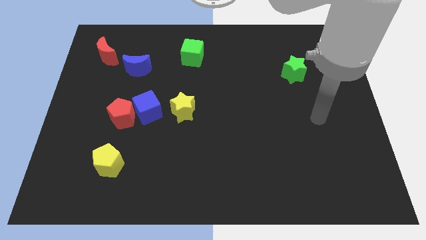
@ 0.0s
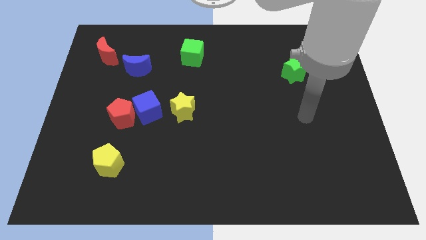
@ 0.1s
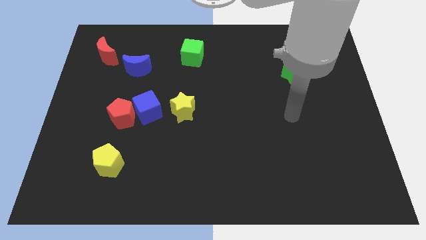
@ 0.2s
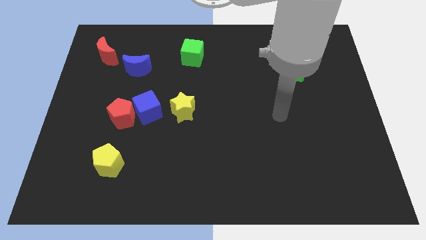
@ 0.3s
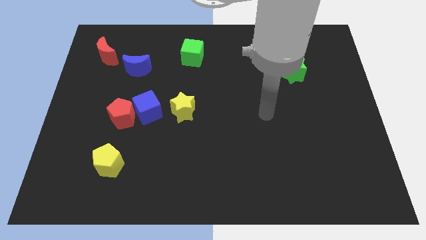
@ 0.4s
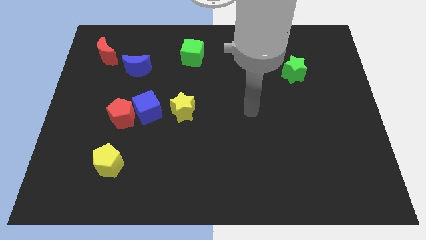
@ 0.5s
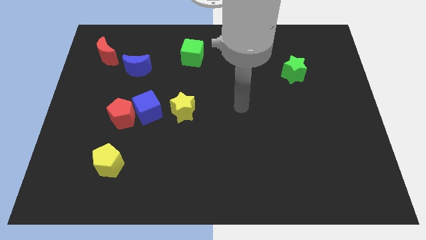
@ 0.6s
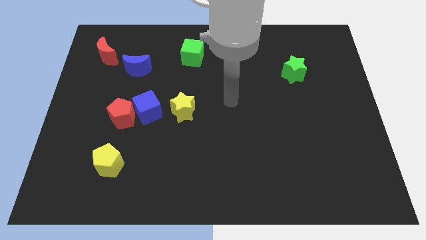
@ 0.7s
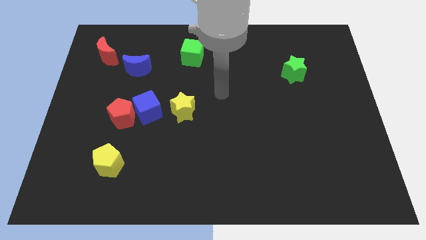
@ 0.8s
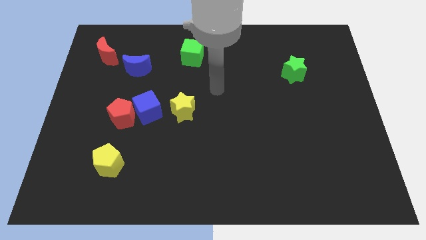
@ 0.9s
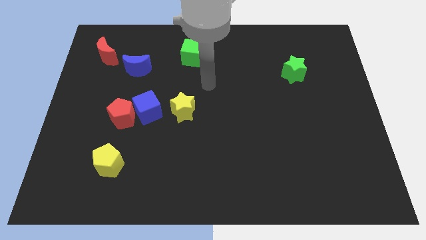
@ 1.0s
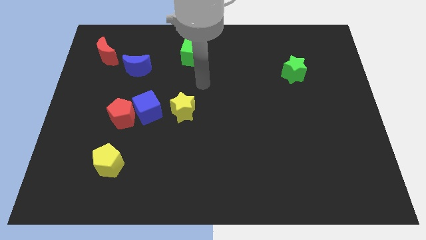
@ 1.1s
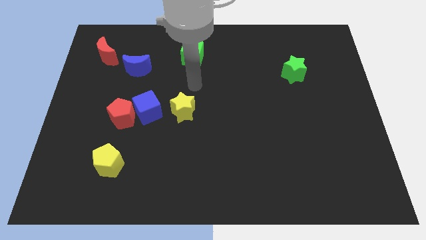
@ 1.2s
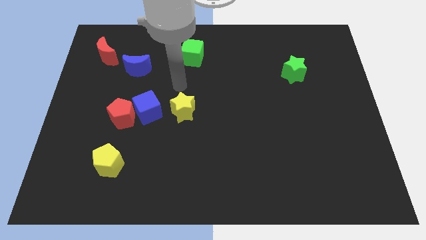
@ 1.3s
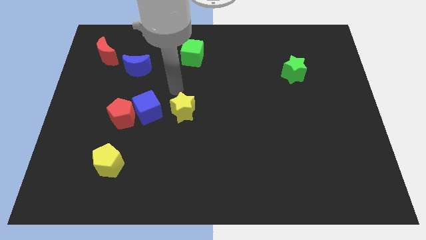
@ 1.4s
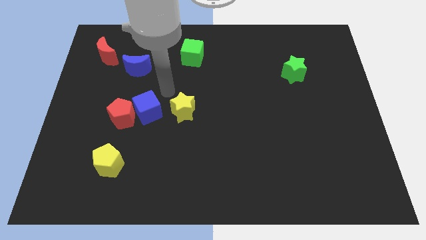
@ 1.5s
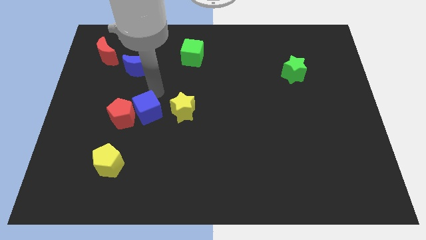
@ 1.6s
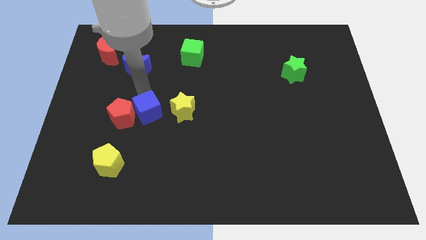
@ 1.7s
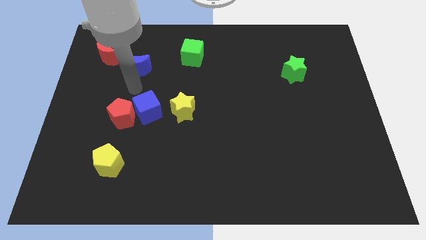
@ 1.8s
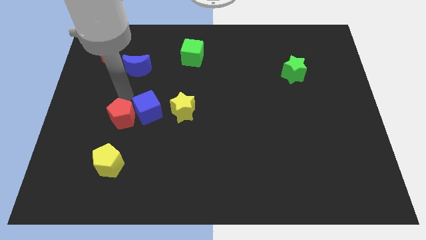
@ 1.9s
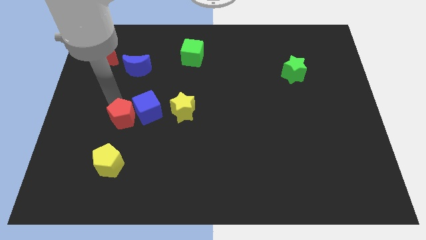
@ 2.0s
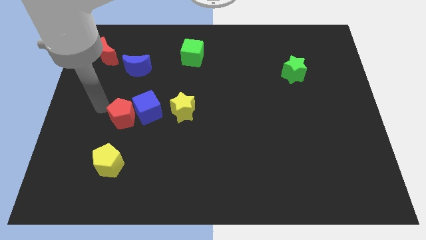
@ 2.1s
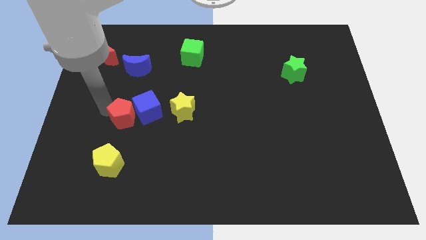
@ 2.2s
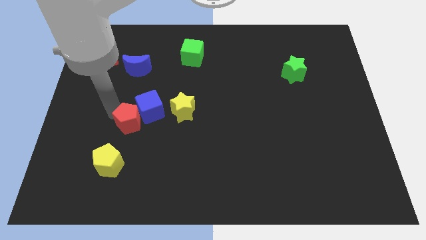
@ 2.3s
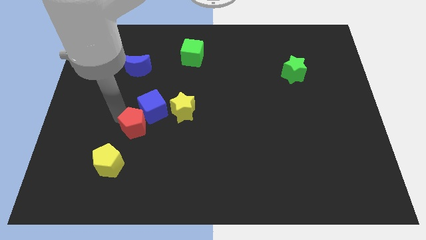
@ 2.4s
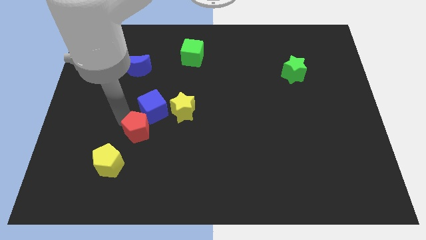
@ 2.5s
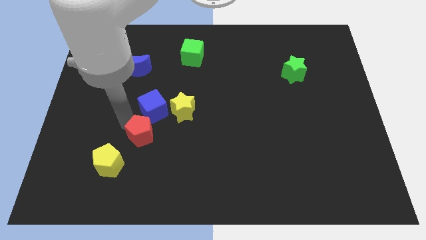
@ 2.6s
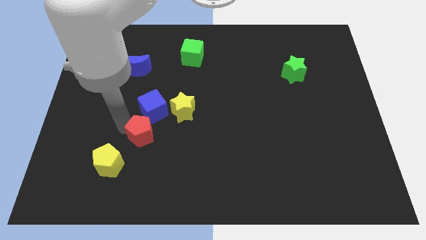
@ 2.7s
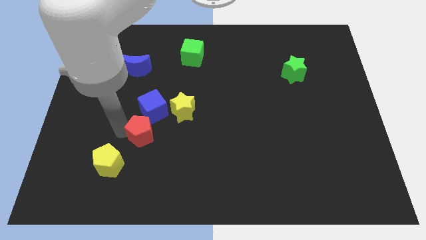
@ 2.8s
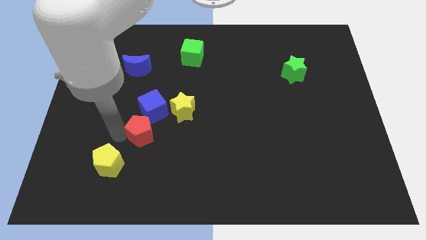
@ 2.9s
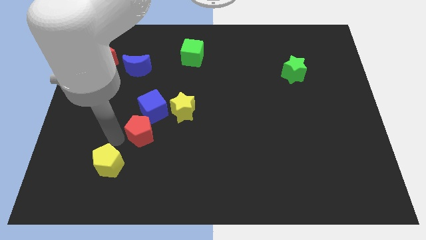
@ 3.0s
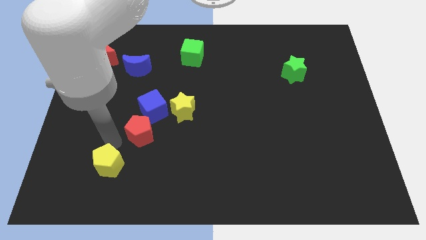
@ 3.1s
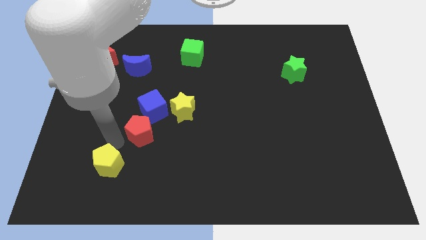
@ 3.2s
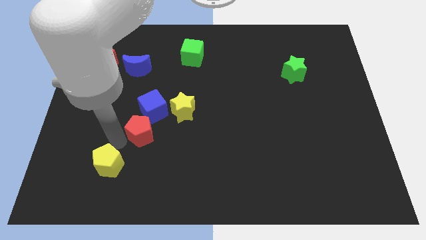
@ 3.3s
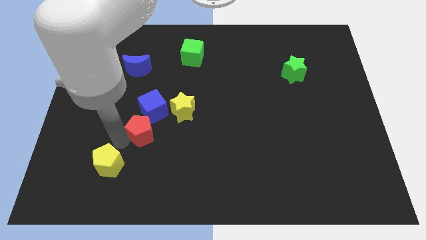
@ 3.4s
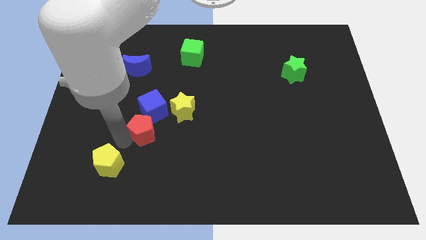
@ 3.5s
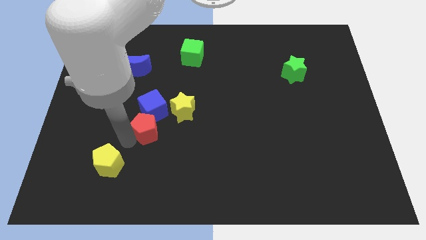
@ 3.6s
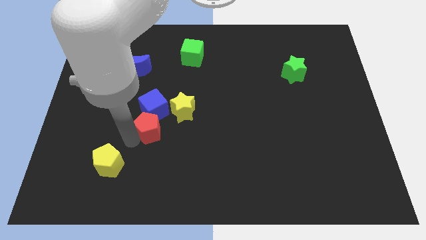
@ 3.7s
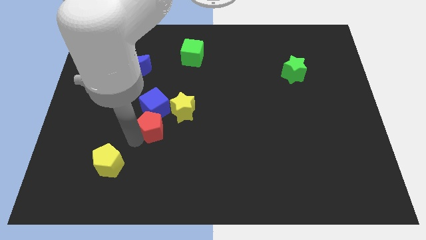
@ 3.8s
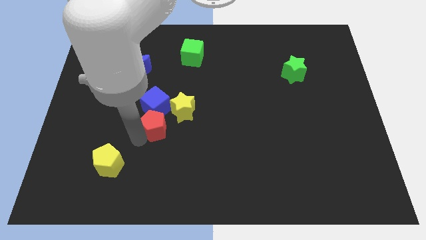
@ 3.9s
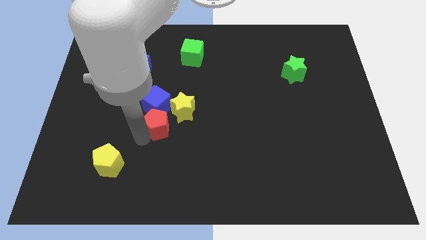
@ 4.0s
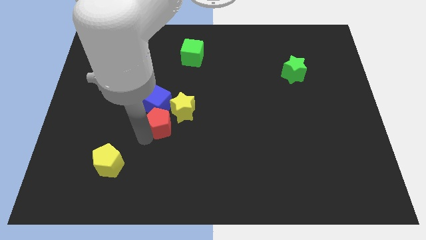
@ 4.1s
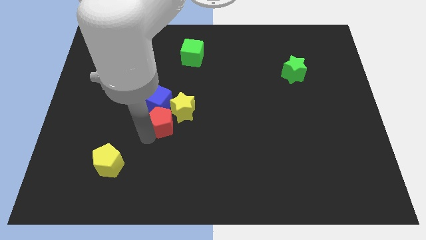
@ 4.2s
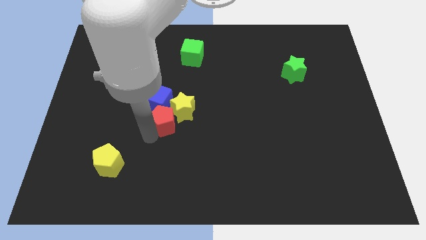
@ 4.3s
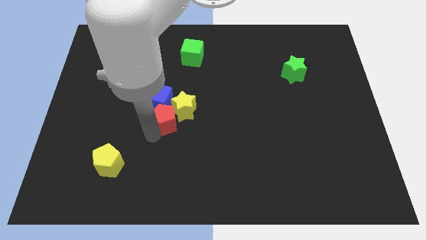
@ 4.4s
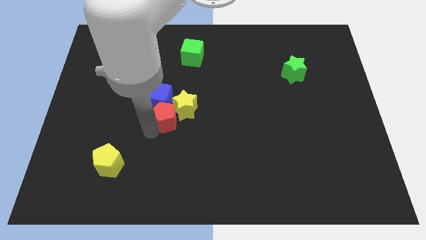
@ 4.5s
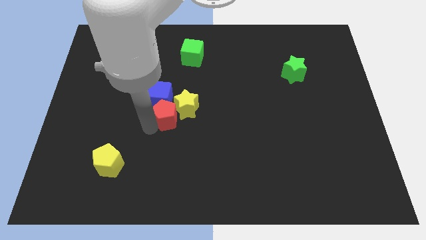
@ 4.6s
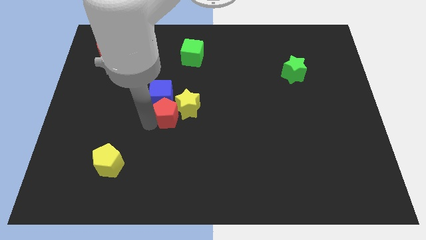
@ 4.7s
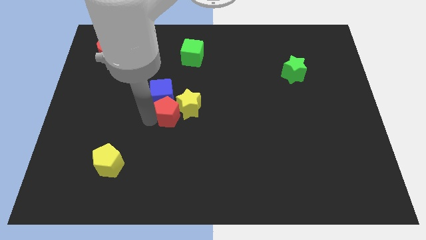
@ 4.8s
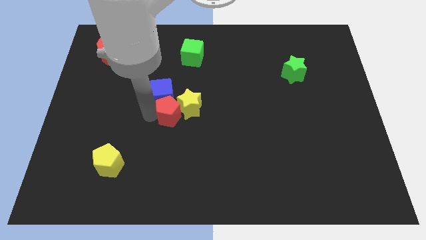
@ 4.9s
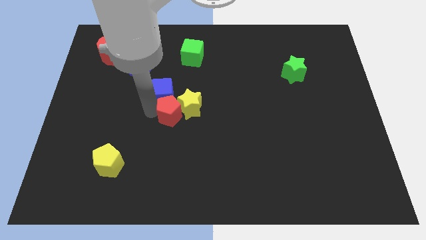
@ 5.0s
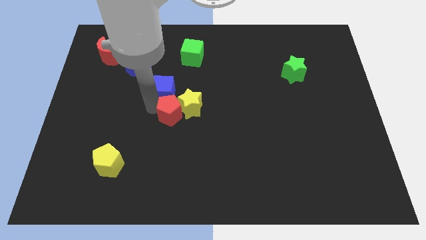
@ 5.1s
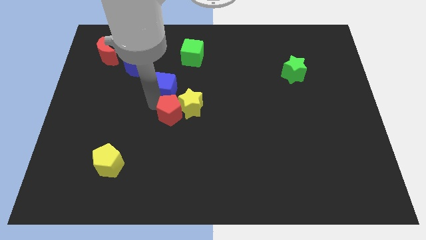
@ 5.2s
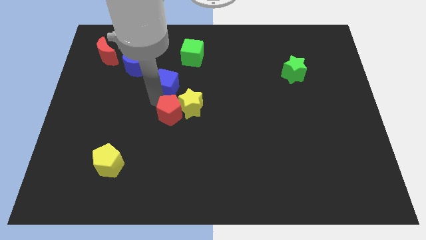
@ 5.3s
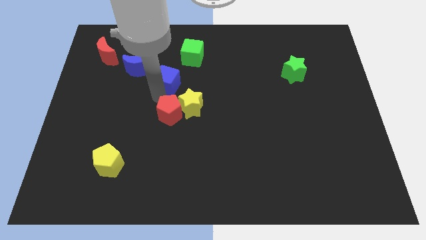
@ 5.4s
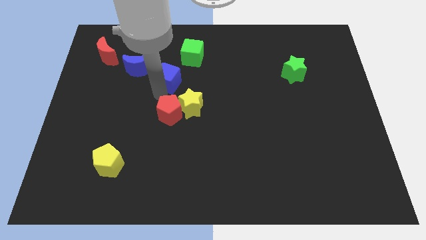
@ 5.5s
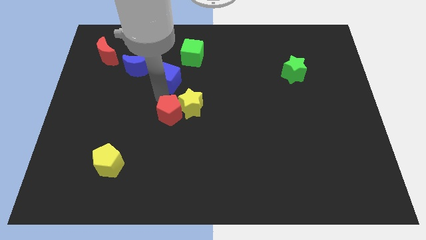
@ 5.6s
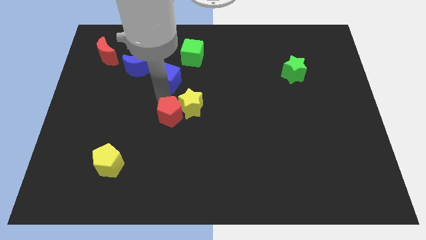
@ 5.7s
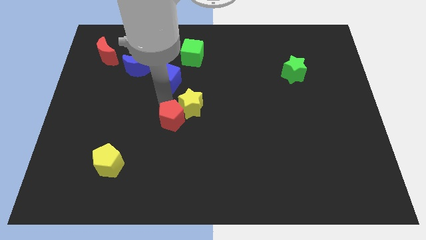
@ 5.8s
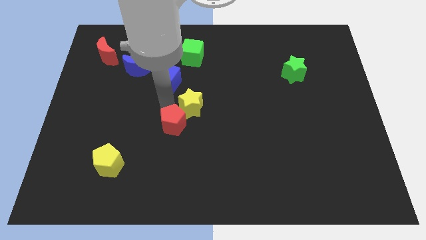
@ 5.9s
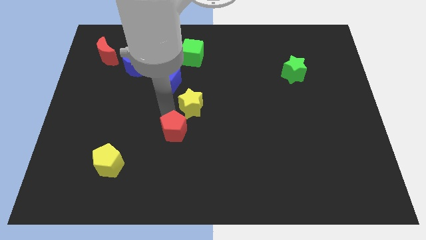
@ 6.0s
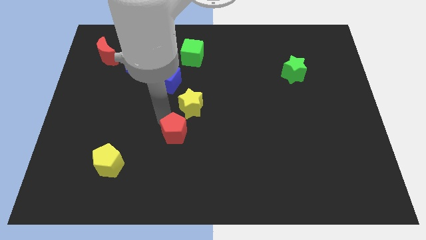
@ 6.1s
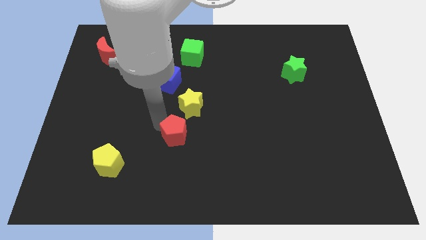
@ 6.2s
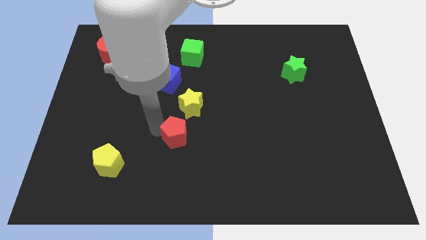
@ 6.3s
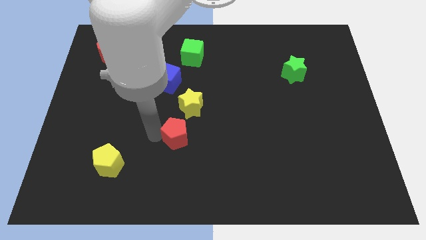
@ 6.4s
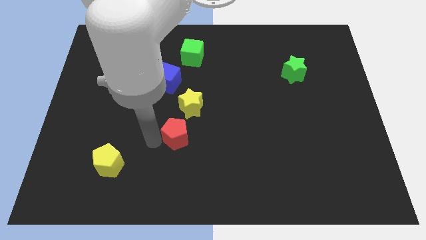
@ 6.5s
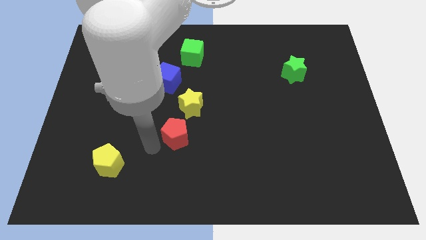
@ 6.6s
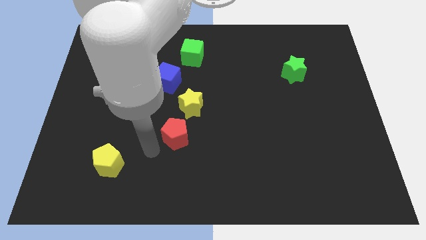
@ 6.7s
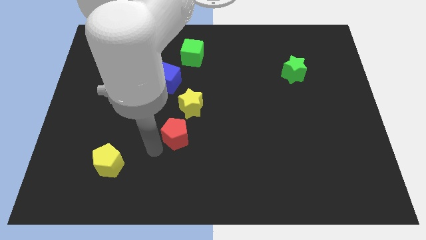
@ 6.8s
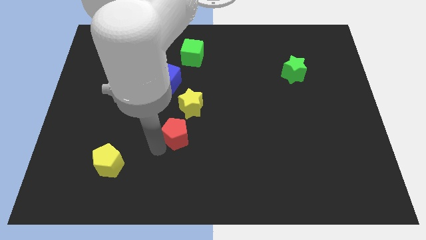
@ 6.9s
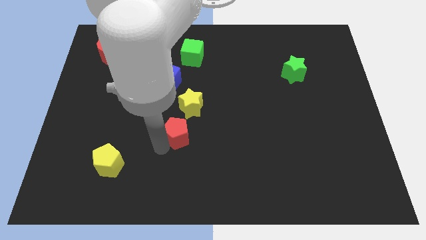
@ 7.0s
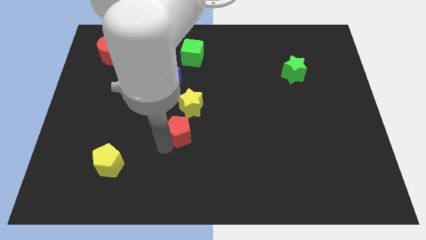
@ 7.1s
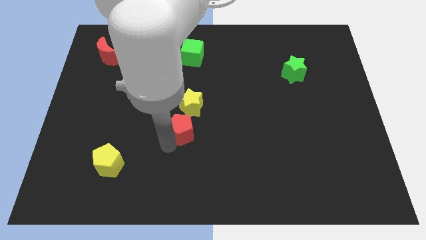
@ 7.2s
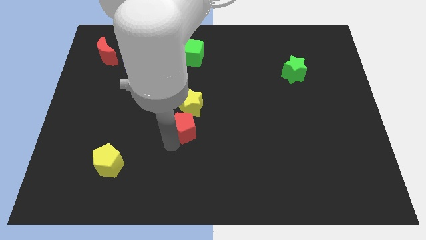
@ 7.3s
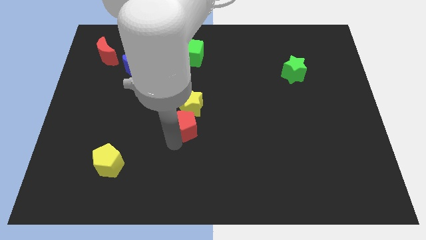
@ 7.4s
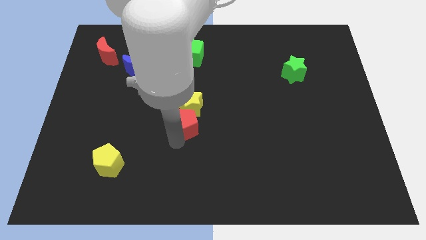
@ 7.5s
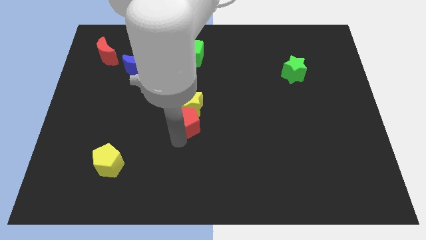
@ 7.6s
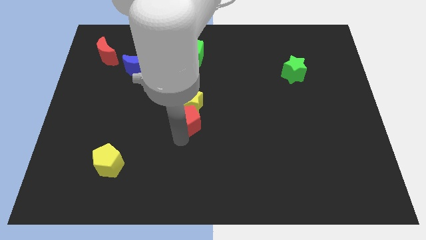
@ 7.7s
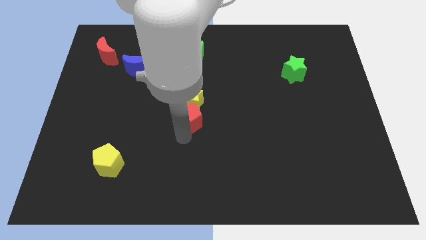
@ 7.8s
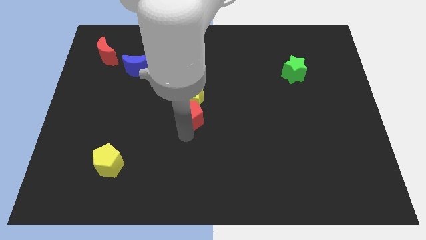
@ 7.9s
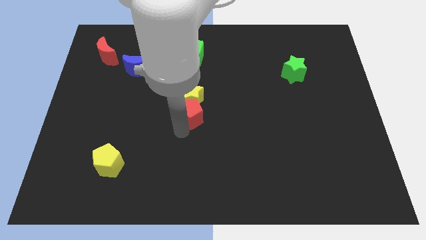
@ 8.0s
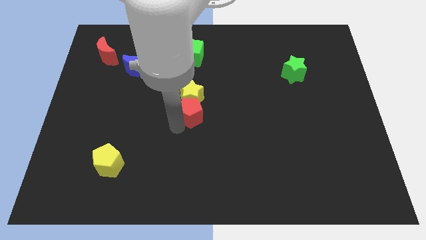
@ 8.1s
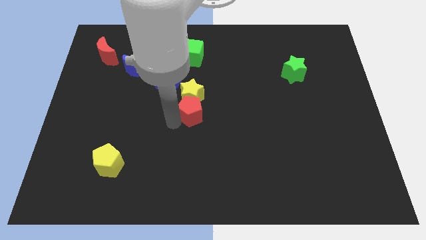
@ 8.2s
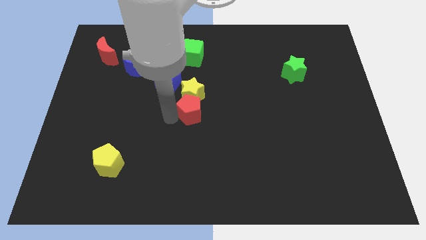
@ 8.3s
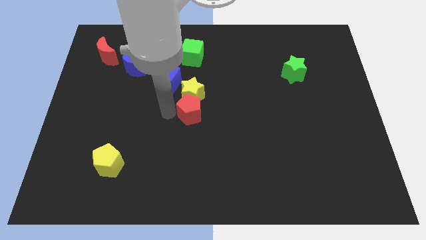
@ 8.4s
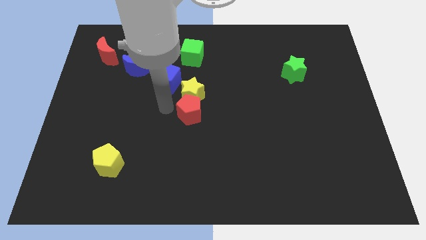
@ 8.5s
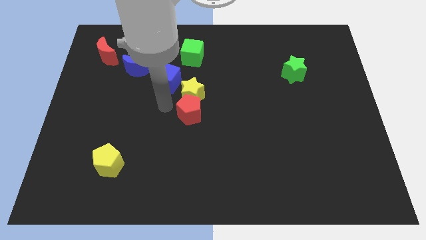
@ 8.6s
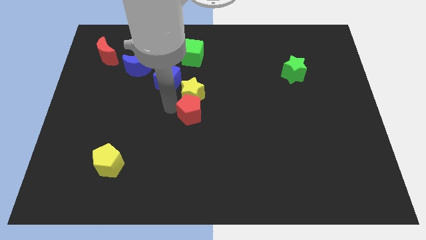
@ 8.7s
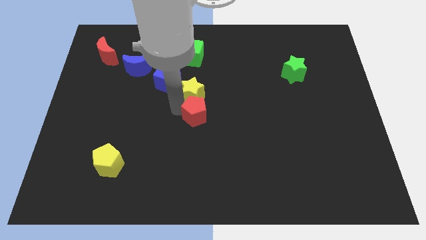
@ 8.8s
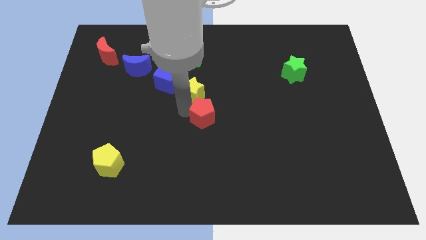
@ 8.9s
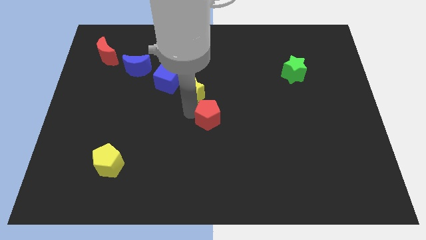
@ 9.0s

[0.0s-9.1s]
move the red pentagon to the right
